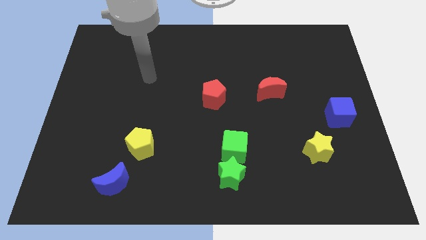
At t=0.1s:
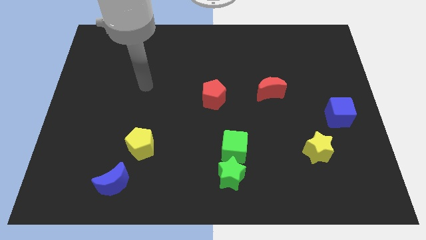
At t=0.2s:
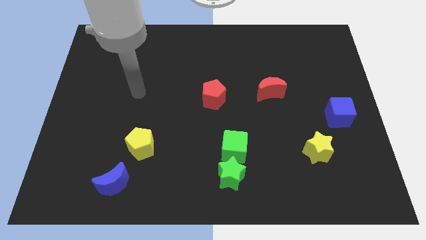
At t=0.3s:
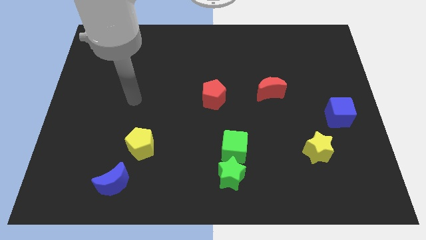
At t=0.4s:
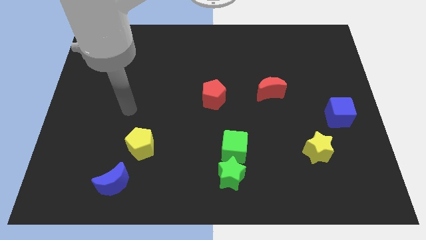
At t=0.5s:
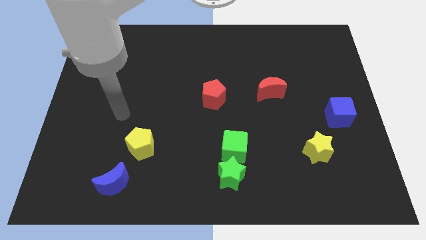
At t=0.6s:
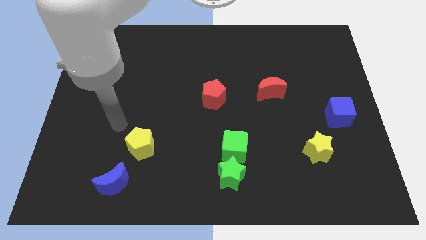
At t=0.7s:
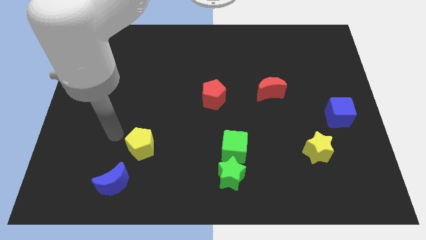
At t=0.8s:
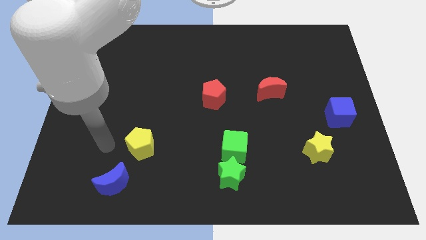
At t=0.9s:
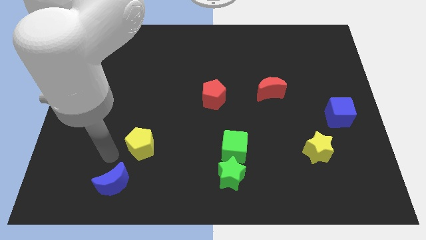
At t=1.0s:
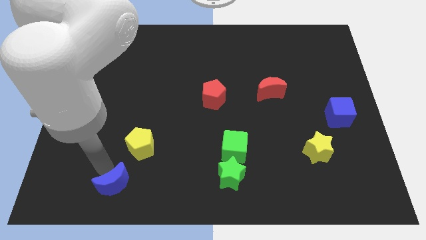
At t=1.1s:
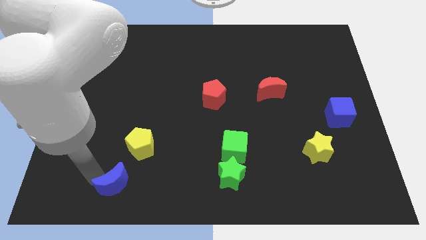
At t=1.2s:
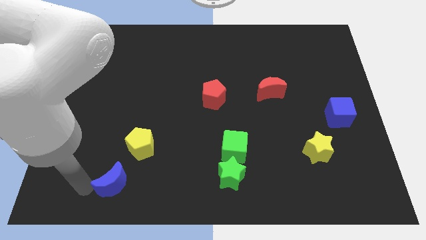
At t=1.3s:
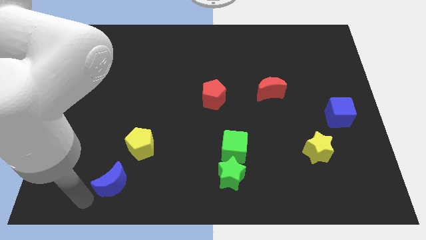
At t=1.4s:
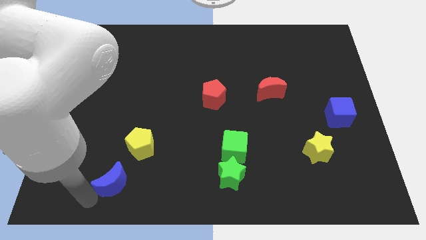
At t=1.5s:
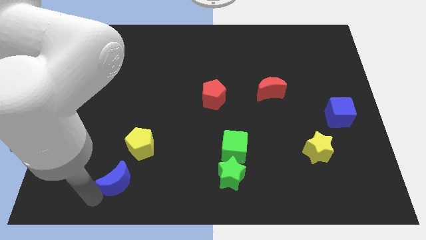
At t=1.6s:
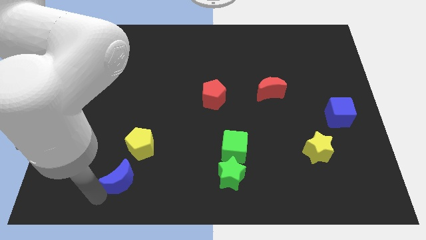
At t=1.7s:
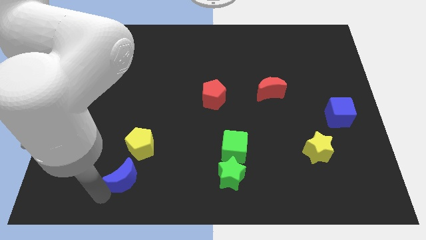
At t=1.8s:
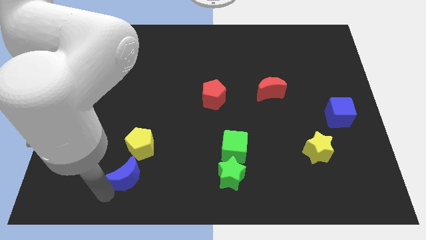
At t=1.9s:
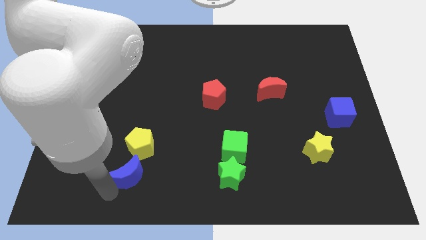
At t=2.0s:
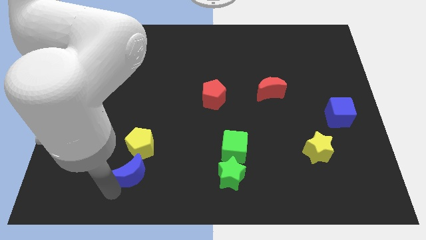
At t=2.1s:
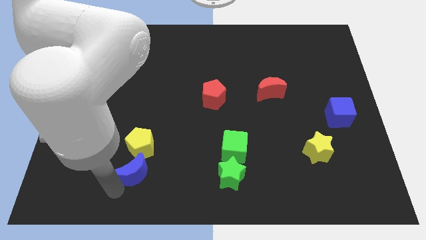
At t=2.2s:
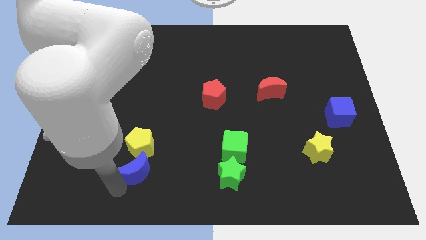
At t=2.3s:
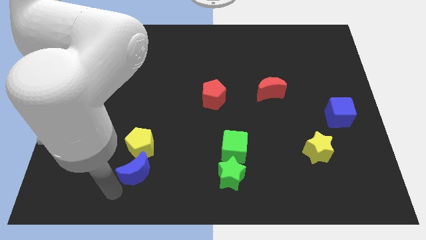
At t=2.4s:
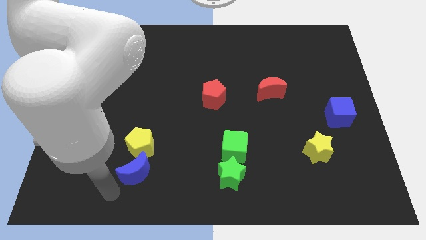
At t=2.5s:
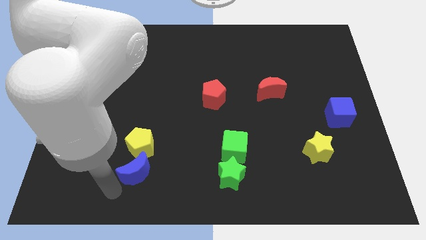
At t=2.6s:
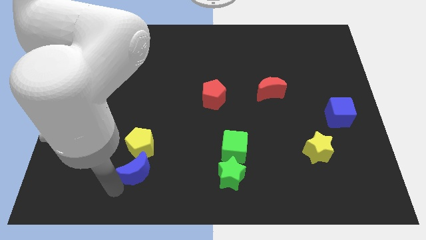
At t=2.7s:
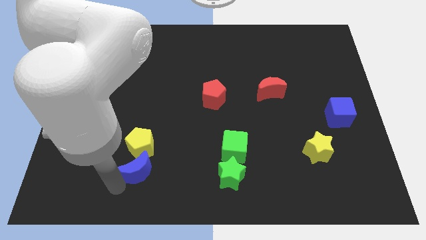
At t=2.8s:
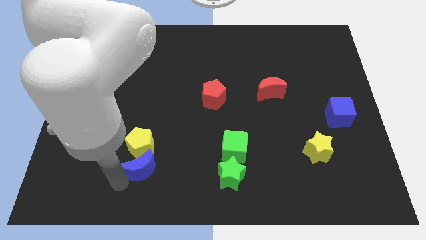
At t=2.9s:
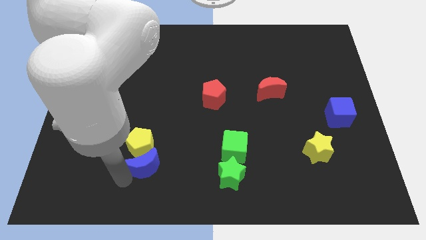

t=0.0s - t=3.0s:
move the blue moon up and to the right somewhat

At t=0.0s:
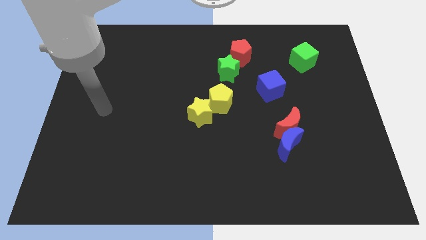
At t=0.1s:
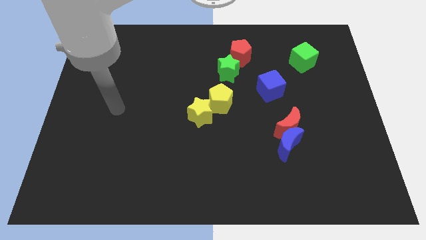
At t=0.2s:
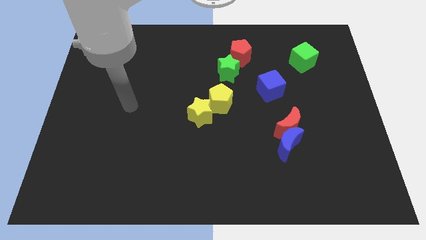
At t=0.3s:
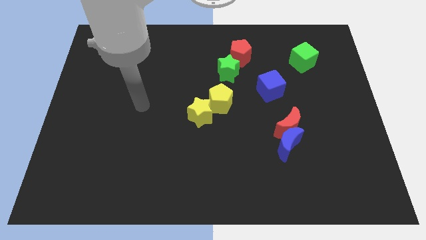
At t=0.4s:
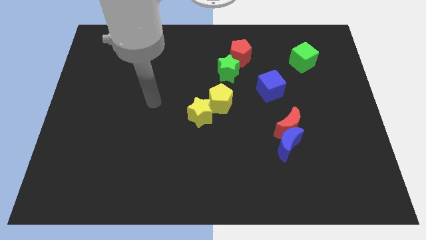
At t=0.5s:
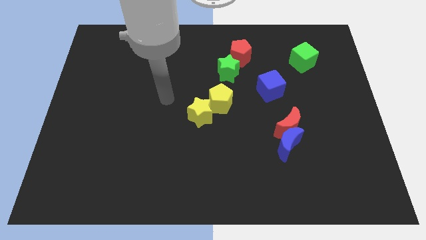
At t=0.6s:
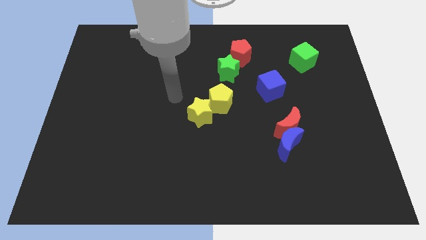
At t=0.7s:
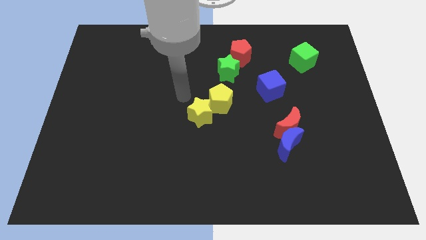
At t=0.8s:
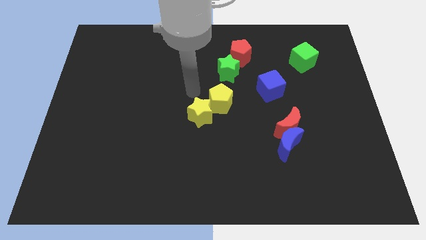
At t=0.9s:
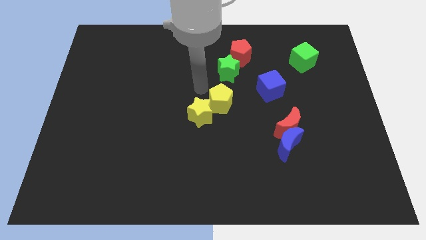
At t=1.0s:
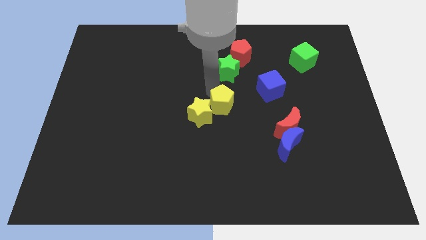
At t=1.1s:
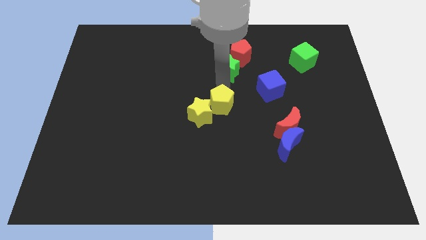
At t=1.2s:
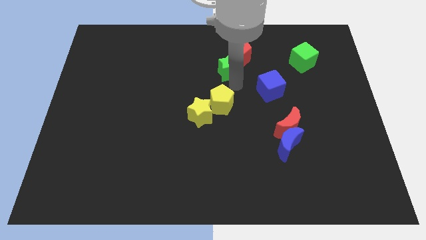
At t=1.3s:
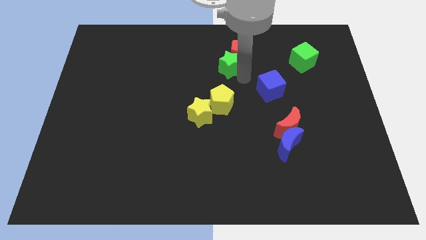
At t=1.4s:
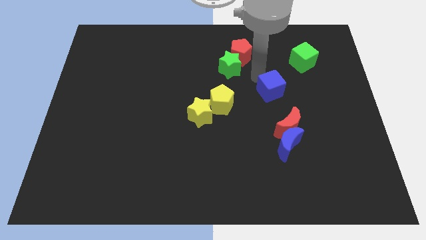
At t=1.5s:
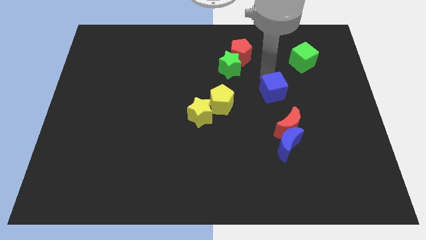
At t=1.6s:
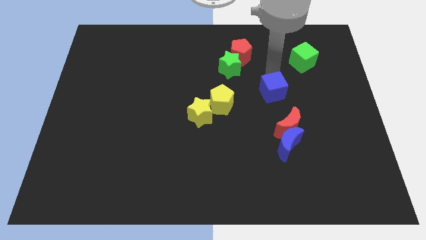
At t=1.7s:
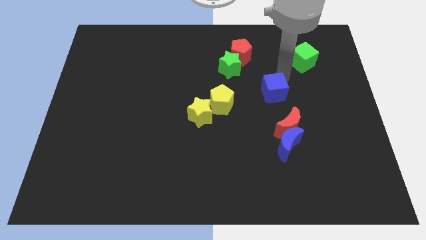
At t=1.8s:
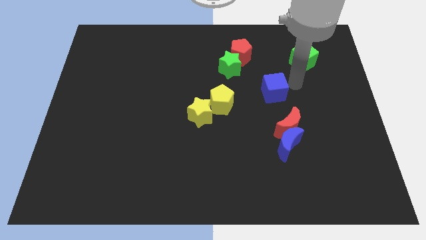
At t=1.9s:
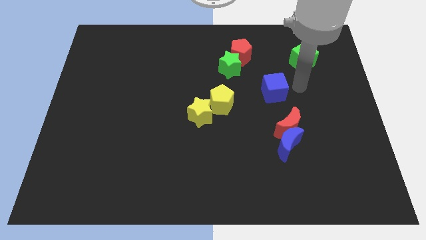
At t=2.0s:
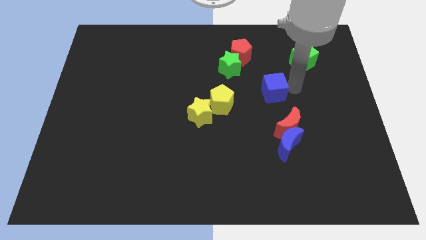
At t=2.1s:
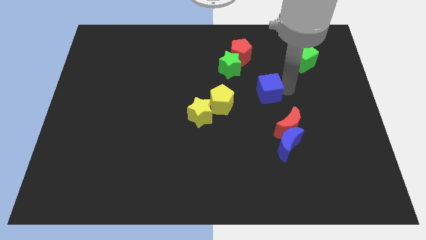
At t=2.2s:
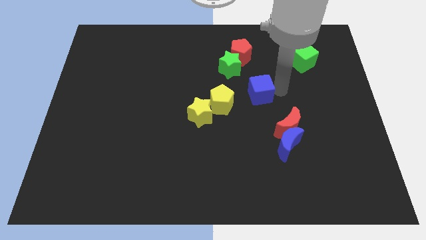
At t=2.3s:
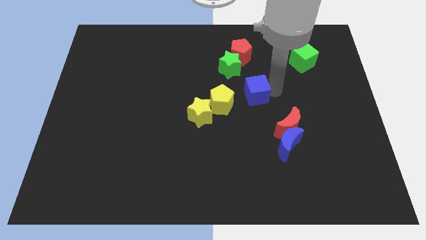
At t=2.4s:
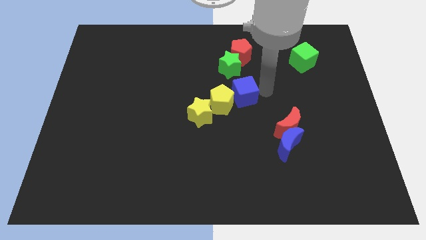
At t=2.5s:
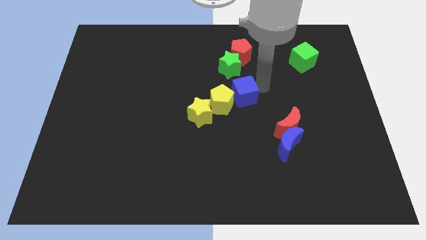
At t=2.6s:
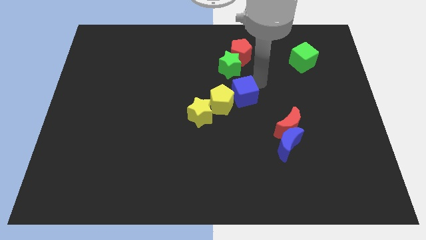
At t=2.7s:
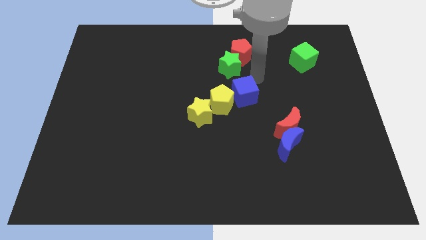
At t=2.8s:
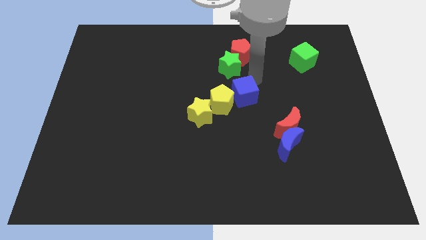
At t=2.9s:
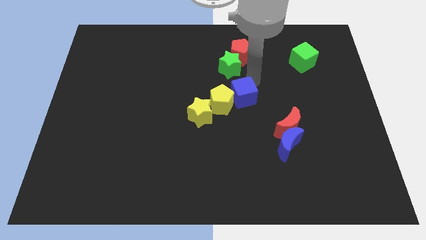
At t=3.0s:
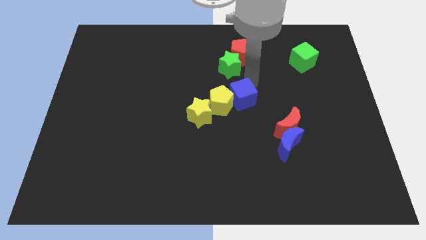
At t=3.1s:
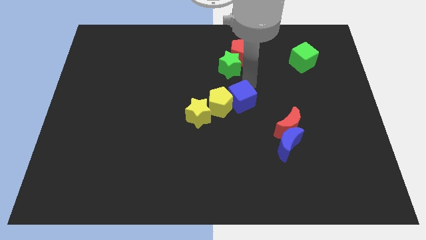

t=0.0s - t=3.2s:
push the blue cube downwards and then left somewhat

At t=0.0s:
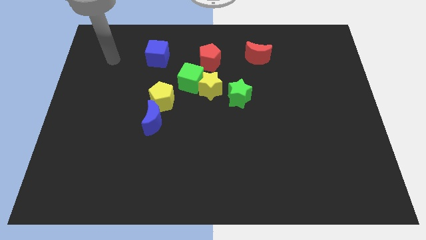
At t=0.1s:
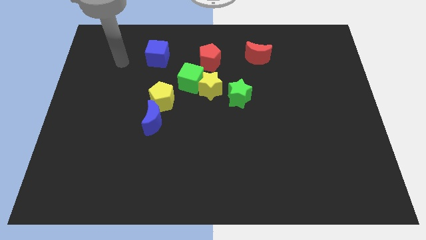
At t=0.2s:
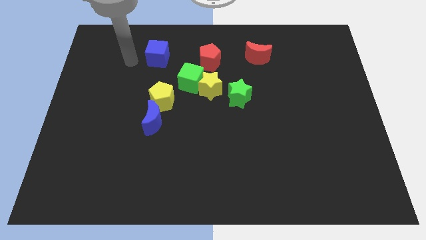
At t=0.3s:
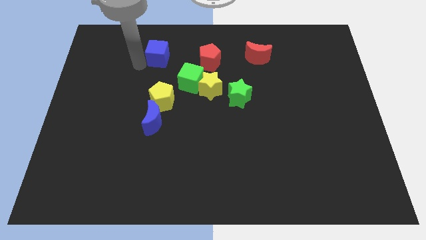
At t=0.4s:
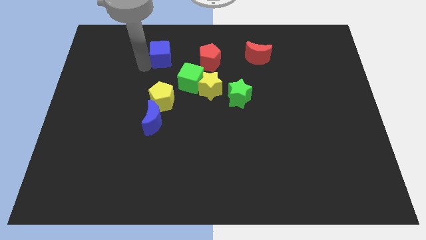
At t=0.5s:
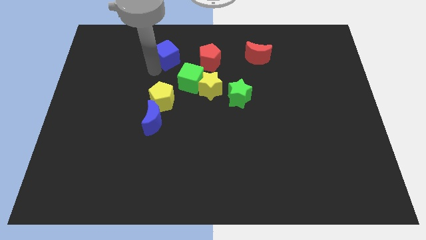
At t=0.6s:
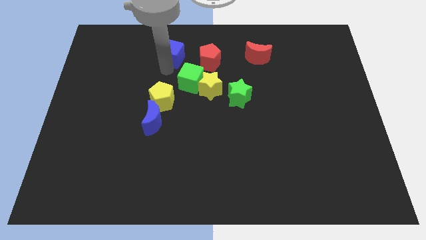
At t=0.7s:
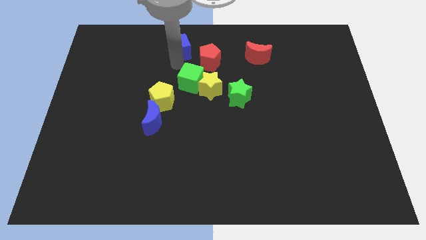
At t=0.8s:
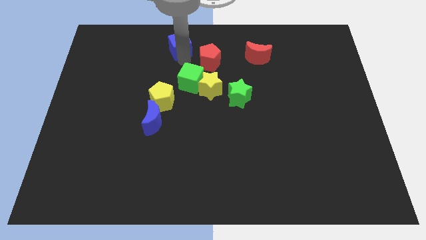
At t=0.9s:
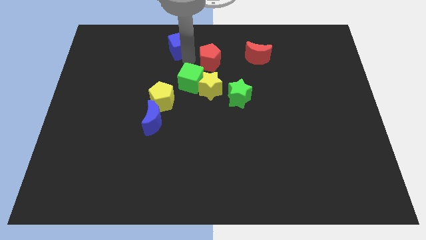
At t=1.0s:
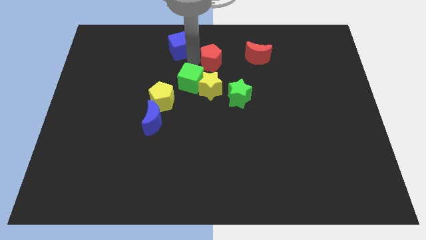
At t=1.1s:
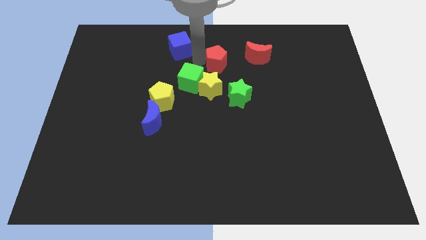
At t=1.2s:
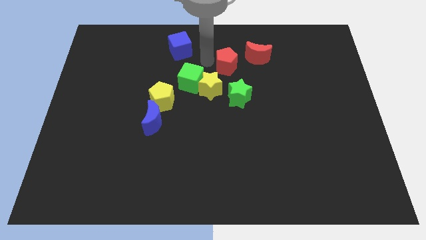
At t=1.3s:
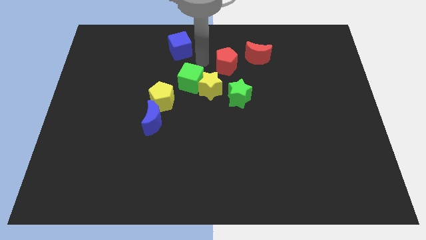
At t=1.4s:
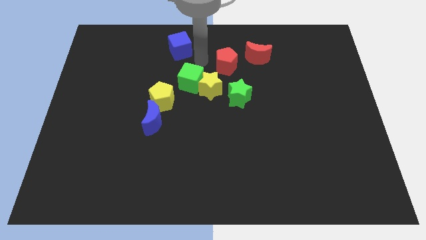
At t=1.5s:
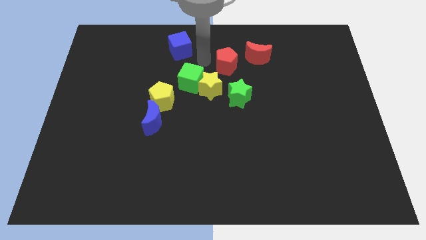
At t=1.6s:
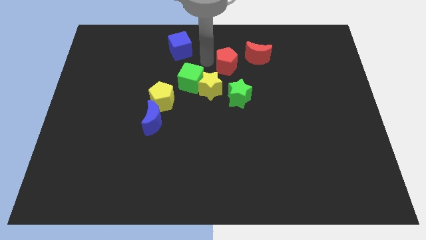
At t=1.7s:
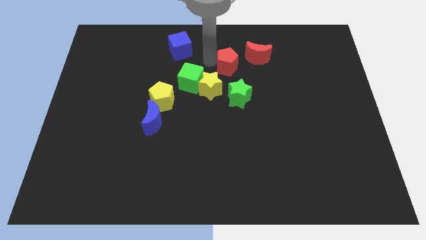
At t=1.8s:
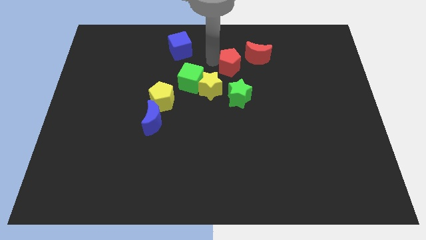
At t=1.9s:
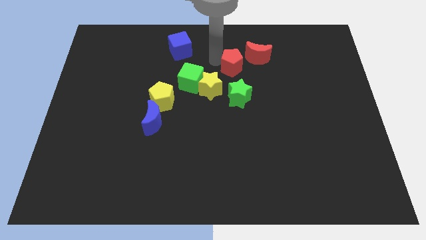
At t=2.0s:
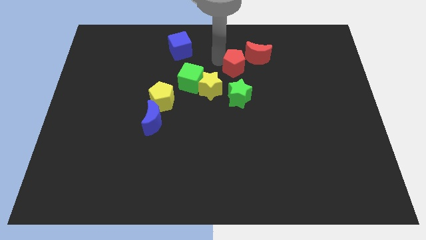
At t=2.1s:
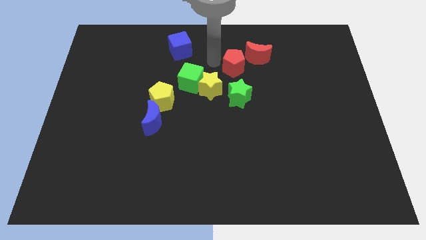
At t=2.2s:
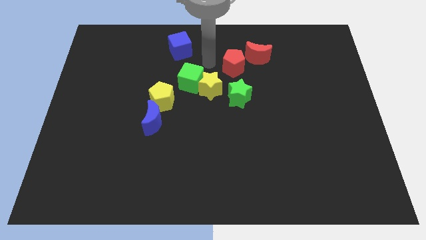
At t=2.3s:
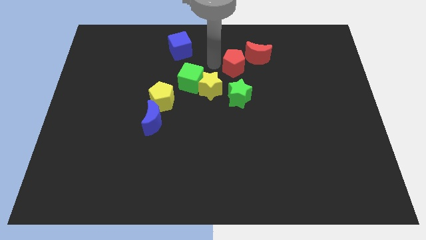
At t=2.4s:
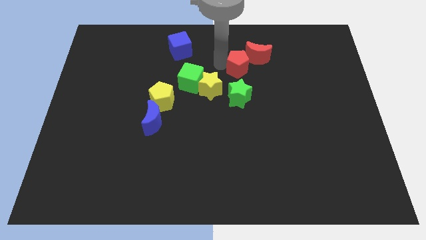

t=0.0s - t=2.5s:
move the red pentagon to the right somewhat
